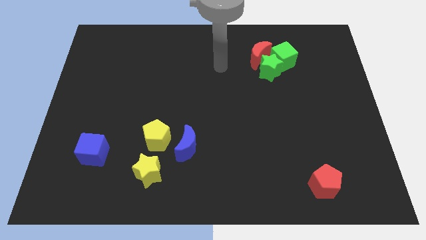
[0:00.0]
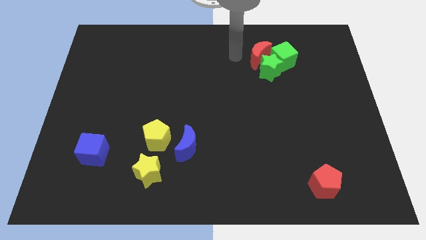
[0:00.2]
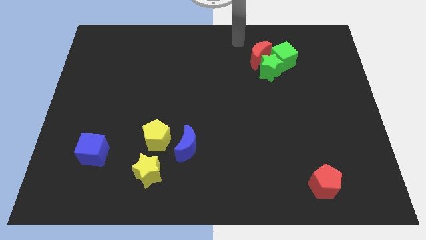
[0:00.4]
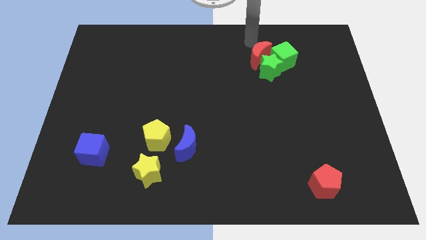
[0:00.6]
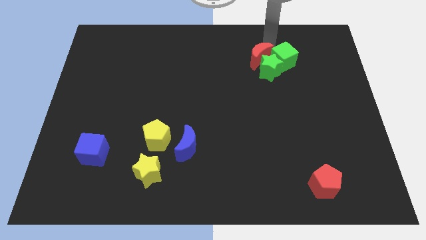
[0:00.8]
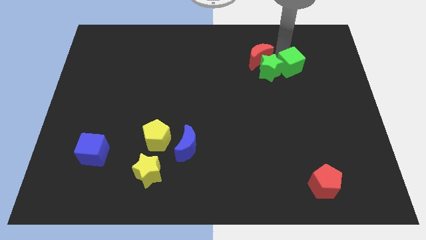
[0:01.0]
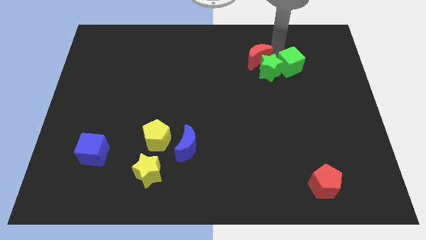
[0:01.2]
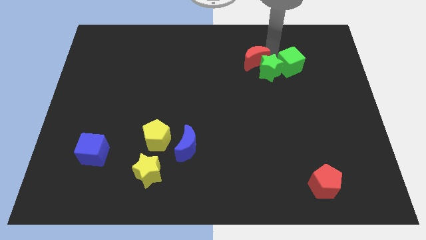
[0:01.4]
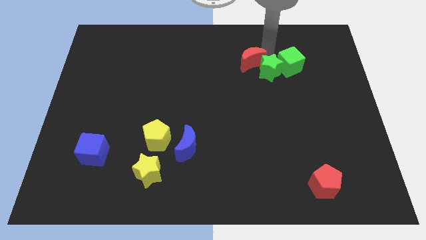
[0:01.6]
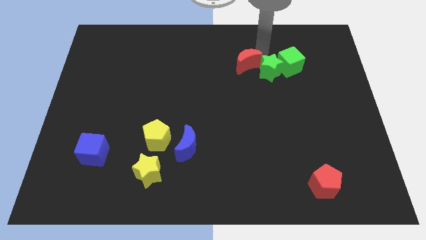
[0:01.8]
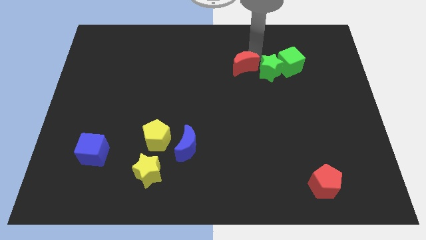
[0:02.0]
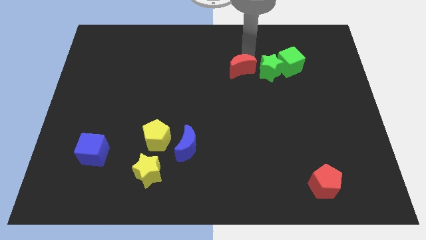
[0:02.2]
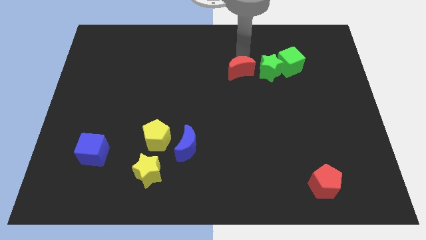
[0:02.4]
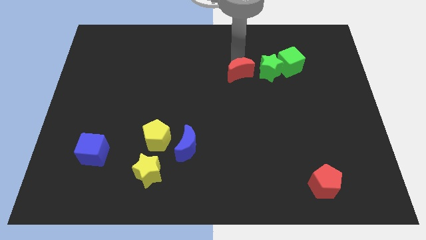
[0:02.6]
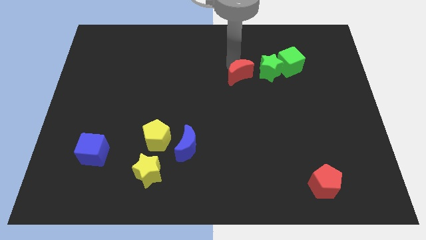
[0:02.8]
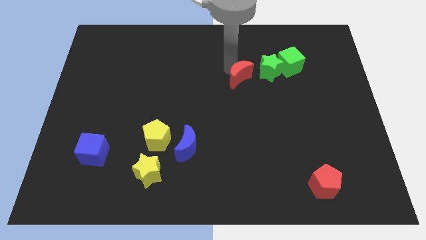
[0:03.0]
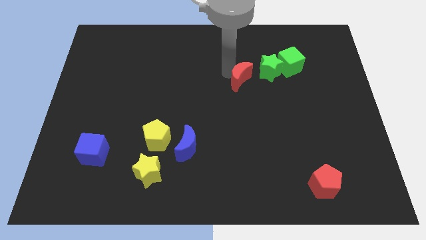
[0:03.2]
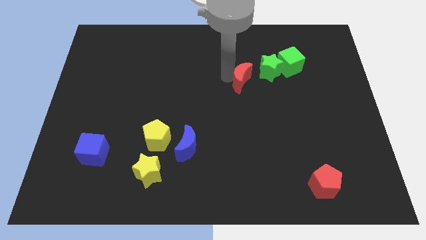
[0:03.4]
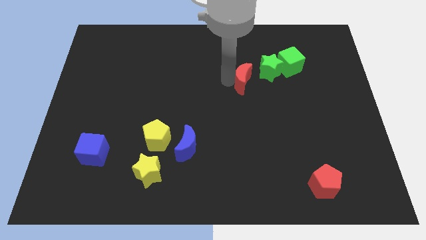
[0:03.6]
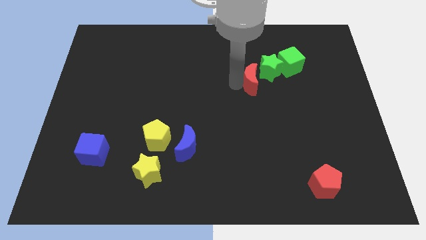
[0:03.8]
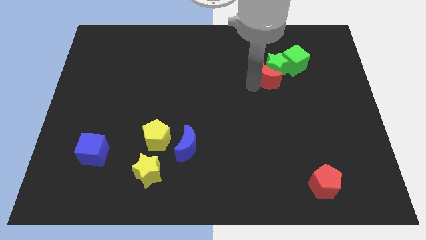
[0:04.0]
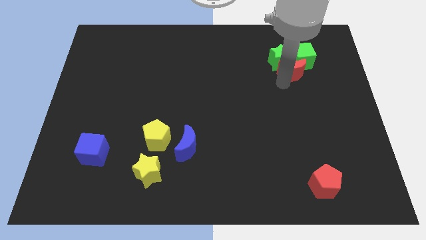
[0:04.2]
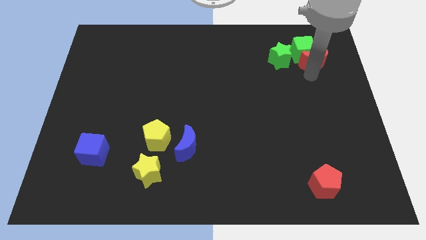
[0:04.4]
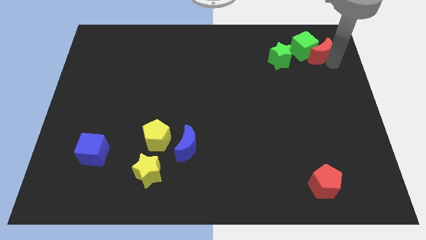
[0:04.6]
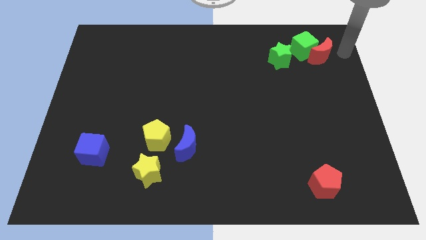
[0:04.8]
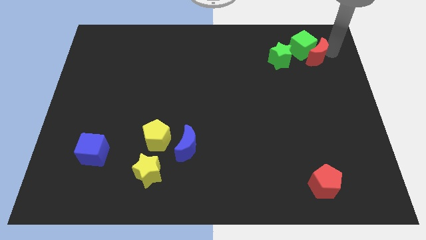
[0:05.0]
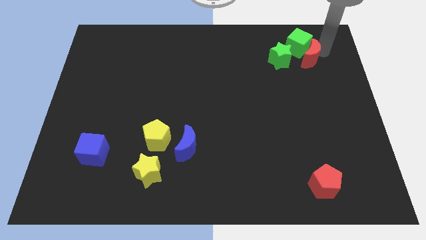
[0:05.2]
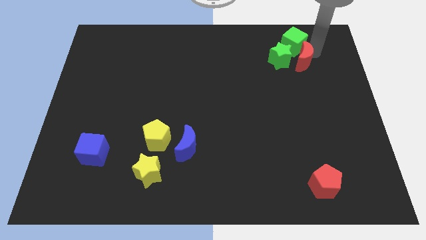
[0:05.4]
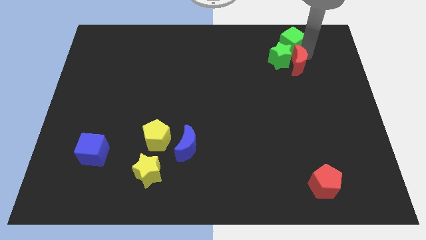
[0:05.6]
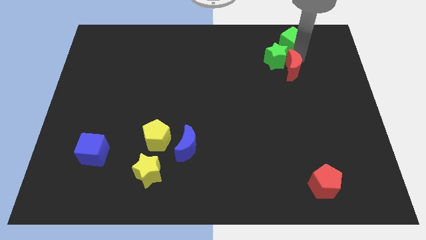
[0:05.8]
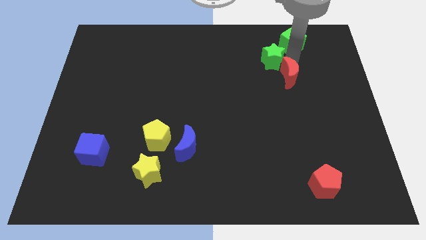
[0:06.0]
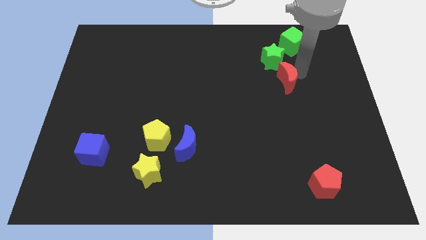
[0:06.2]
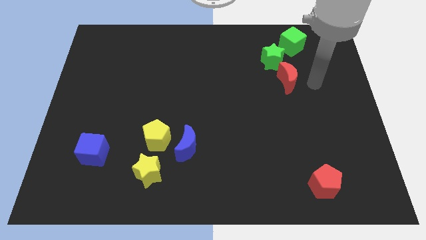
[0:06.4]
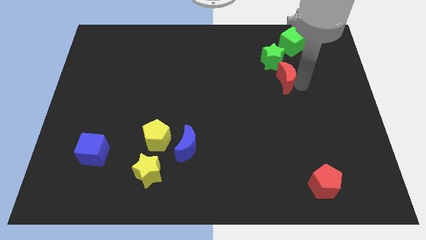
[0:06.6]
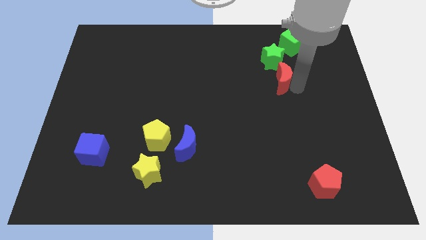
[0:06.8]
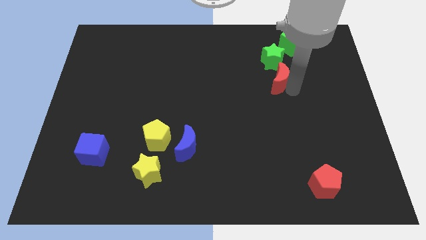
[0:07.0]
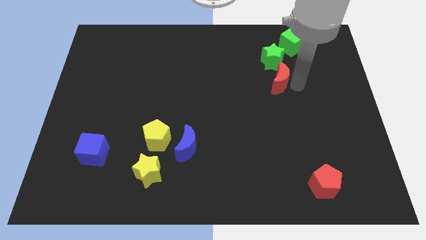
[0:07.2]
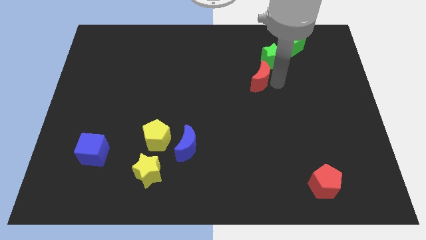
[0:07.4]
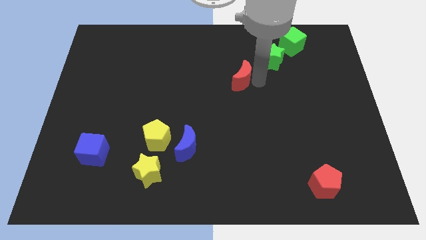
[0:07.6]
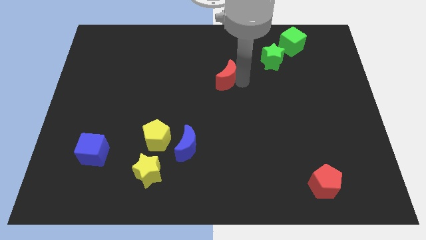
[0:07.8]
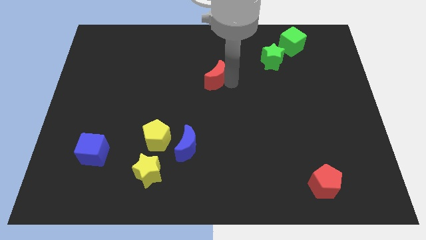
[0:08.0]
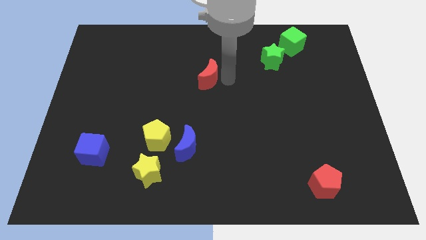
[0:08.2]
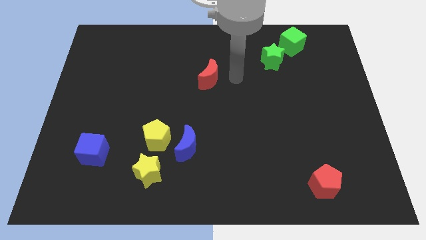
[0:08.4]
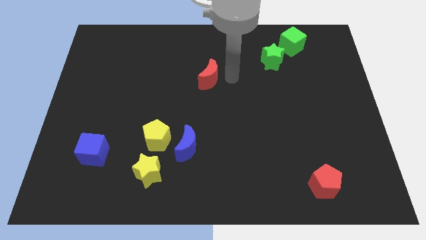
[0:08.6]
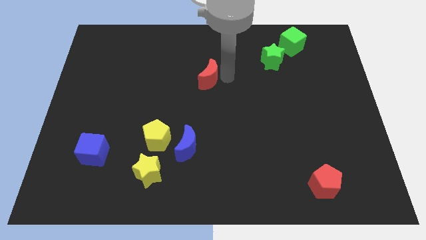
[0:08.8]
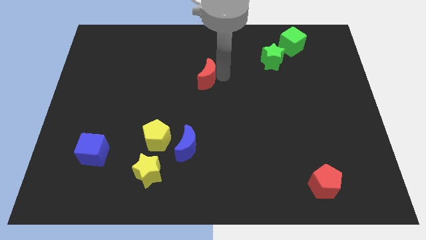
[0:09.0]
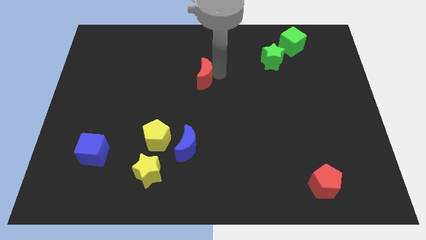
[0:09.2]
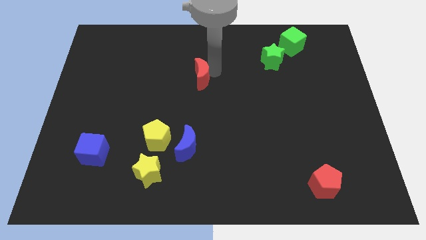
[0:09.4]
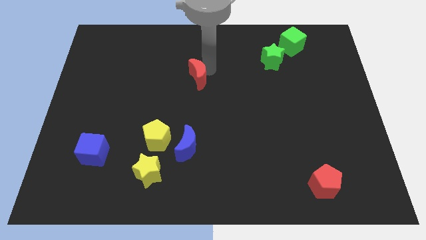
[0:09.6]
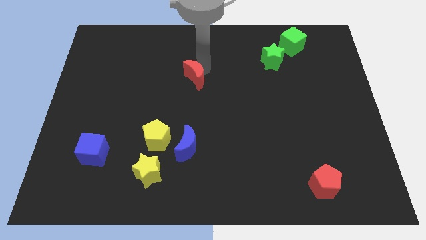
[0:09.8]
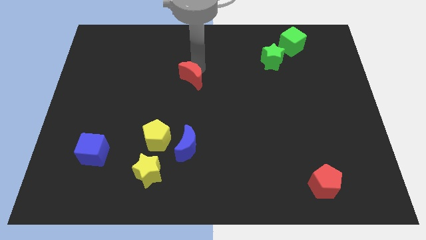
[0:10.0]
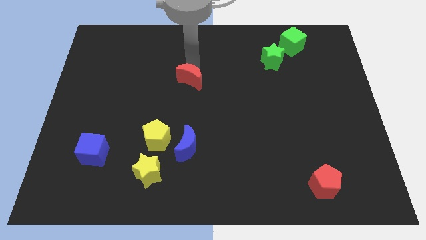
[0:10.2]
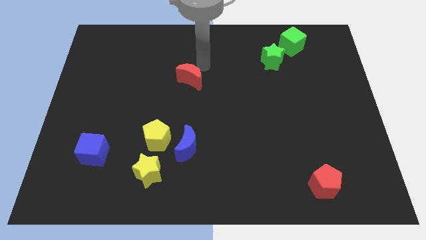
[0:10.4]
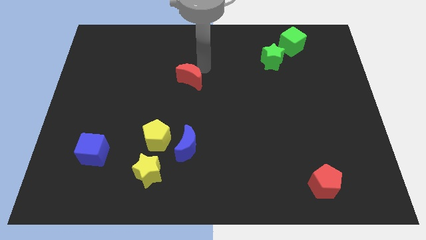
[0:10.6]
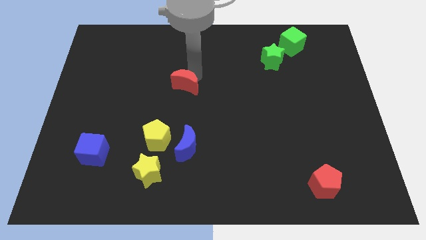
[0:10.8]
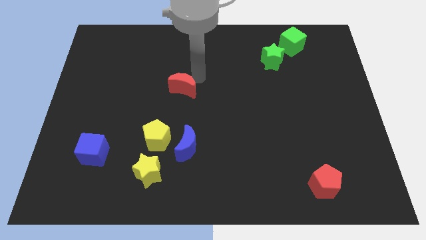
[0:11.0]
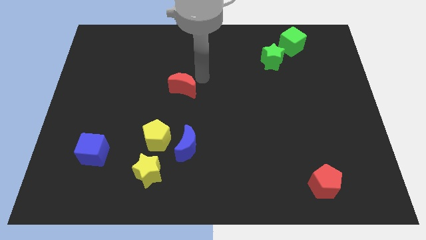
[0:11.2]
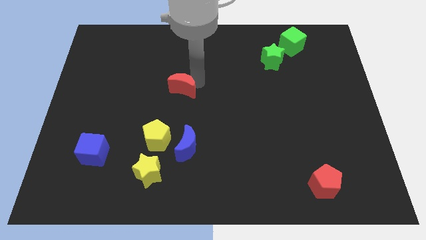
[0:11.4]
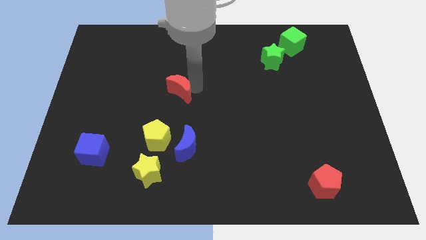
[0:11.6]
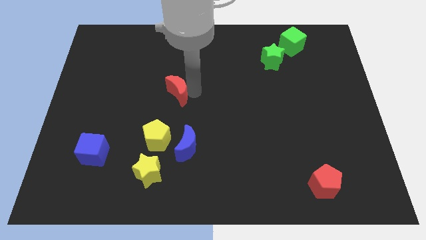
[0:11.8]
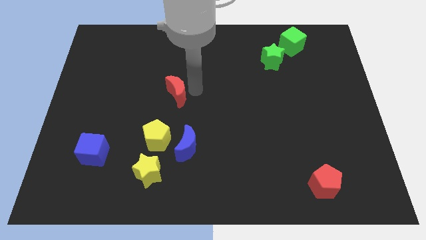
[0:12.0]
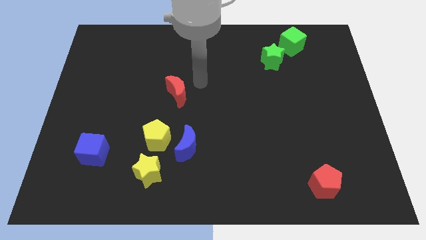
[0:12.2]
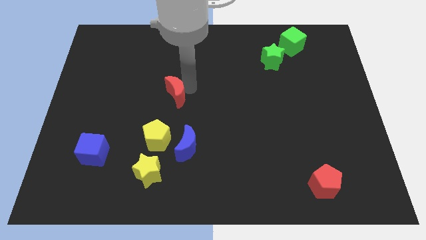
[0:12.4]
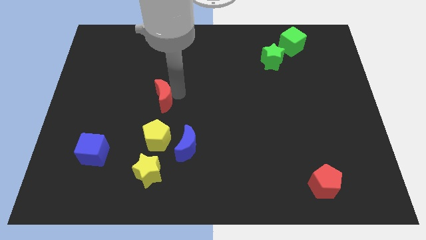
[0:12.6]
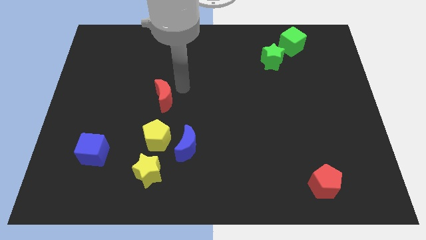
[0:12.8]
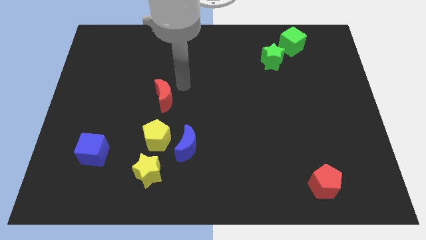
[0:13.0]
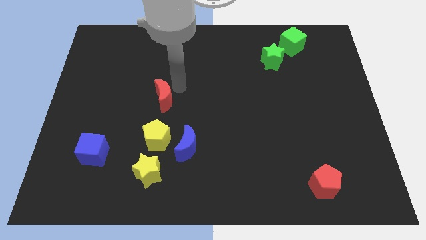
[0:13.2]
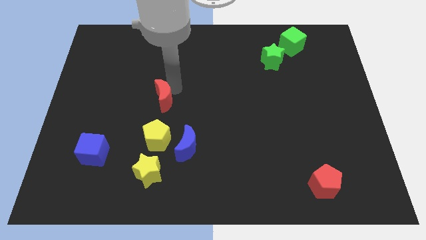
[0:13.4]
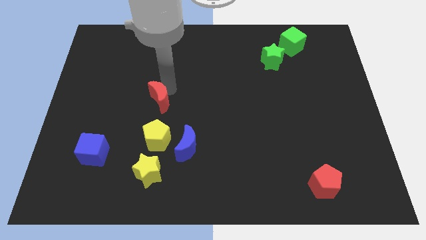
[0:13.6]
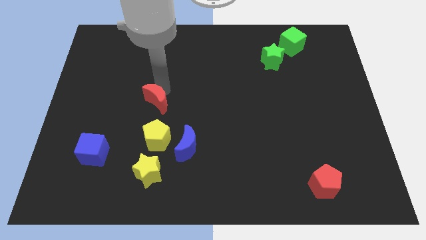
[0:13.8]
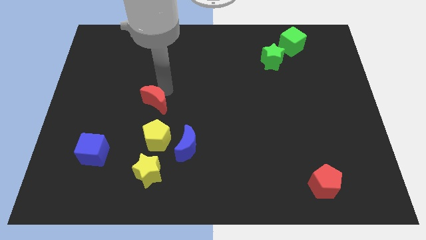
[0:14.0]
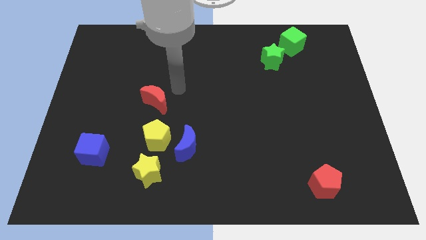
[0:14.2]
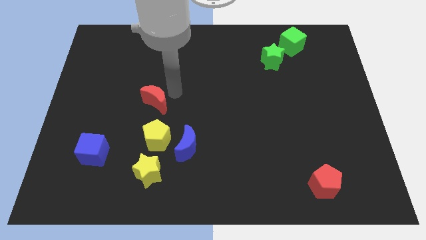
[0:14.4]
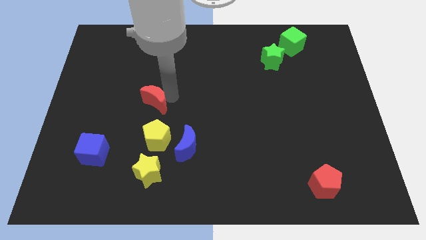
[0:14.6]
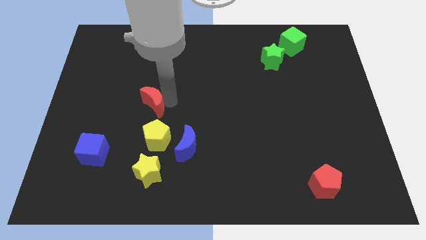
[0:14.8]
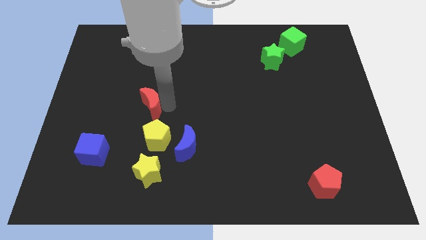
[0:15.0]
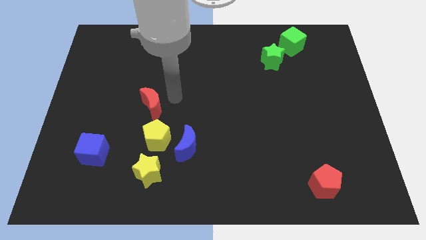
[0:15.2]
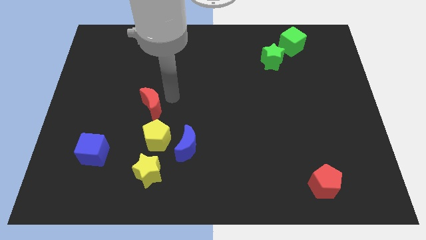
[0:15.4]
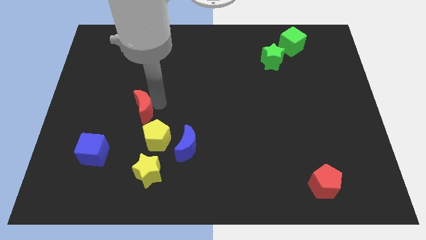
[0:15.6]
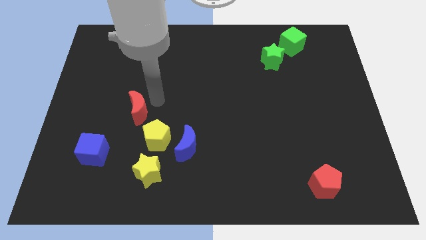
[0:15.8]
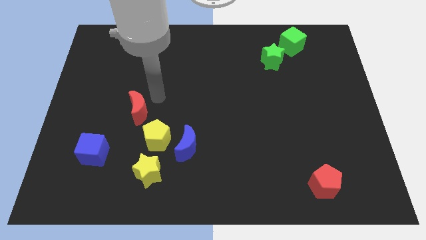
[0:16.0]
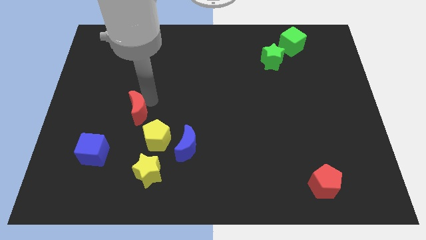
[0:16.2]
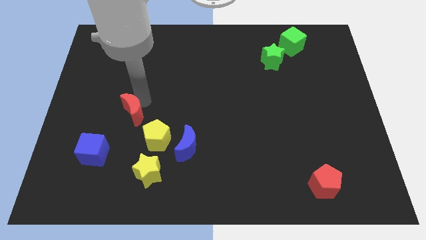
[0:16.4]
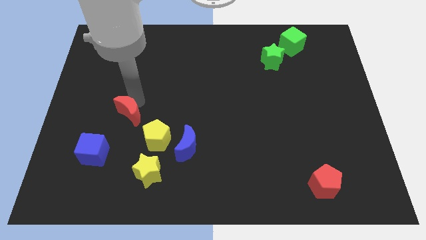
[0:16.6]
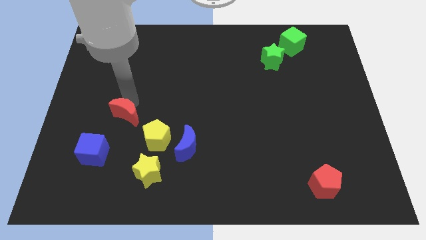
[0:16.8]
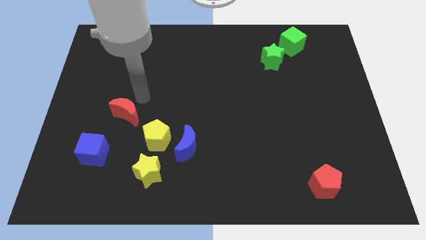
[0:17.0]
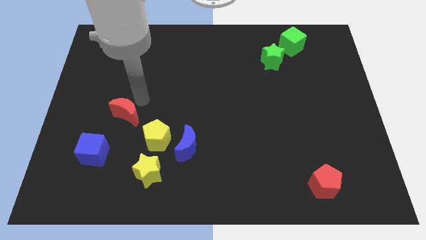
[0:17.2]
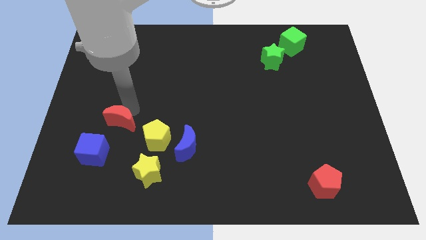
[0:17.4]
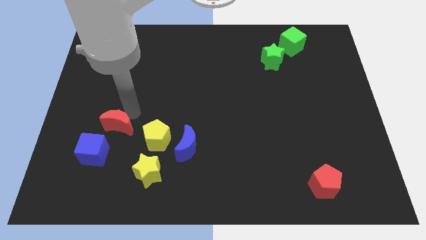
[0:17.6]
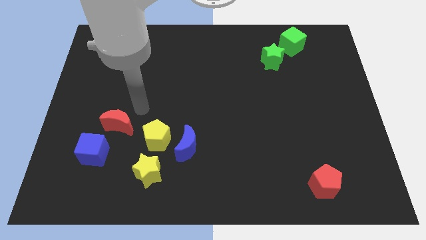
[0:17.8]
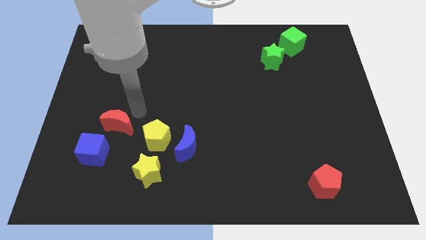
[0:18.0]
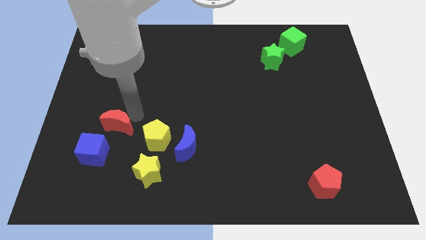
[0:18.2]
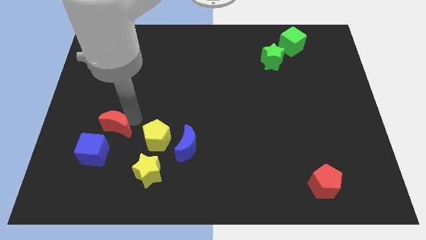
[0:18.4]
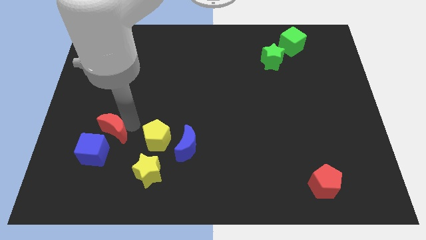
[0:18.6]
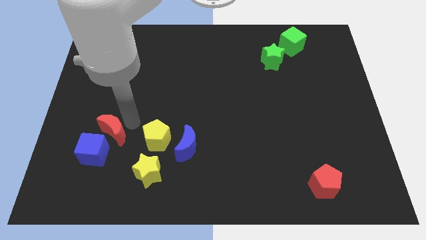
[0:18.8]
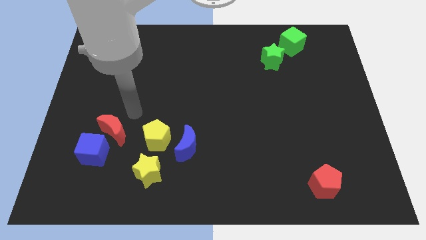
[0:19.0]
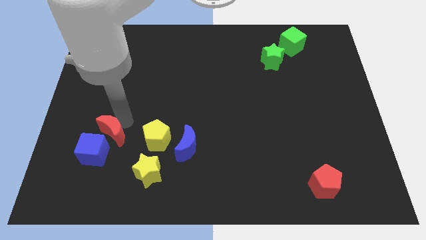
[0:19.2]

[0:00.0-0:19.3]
slide the red moon to the blue cube
